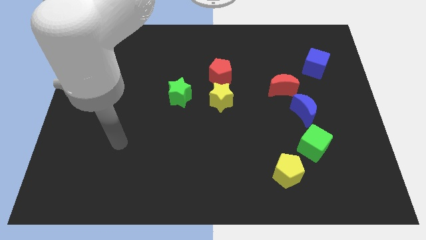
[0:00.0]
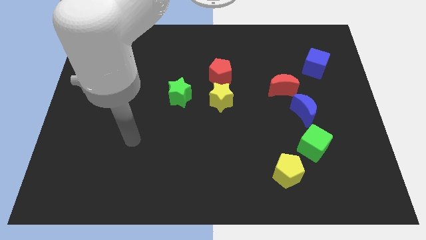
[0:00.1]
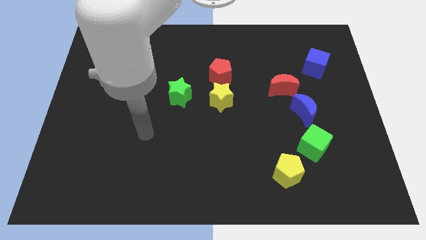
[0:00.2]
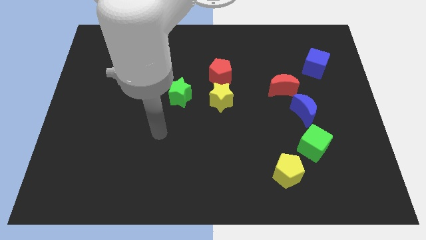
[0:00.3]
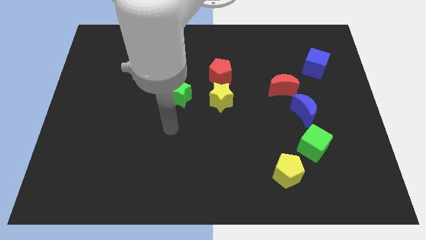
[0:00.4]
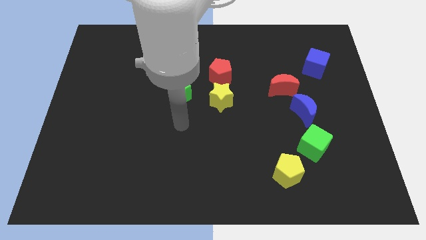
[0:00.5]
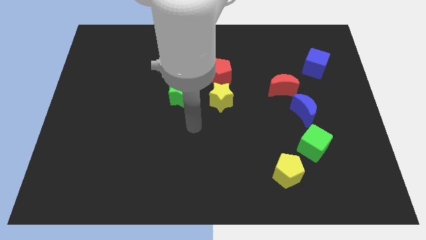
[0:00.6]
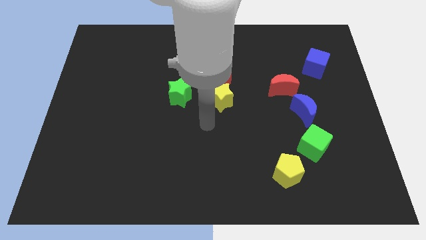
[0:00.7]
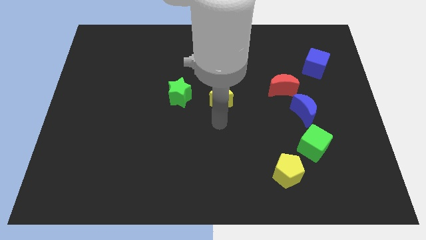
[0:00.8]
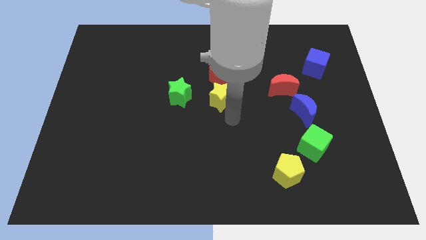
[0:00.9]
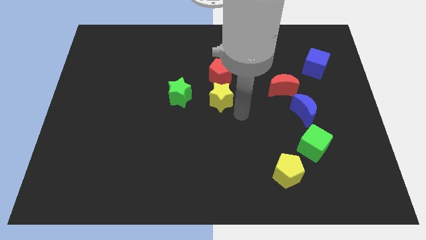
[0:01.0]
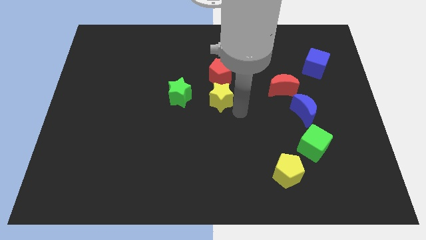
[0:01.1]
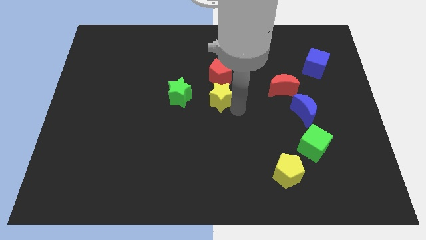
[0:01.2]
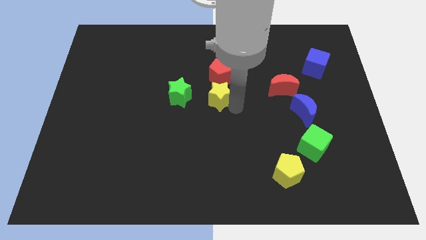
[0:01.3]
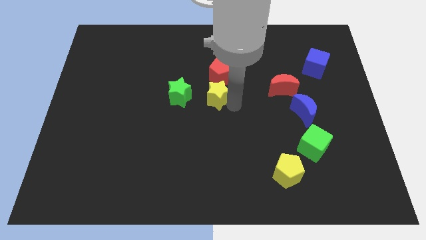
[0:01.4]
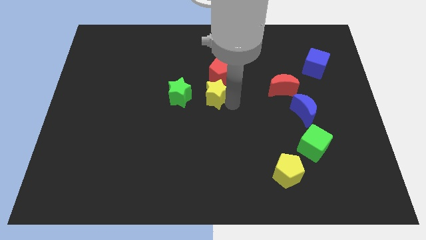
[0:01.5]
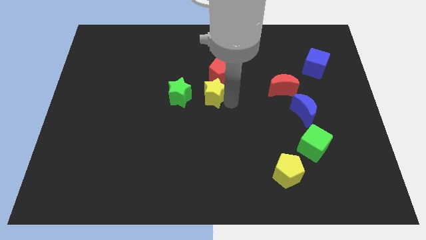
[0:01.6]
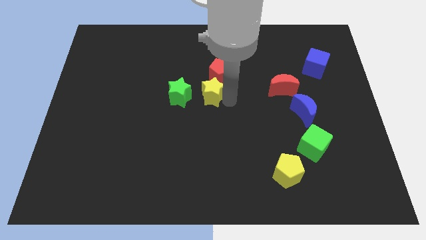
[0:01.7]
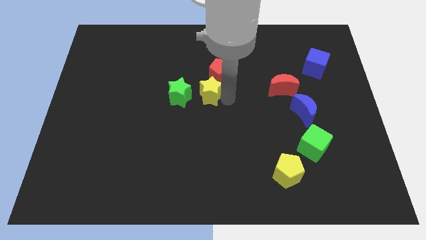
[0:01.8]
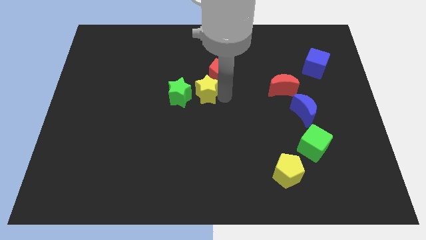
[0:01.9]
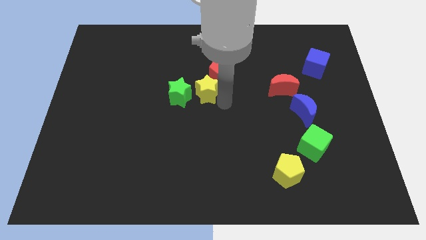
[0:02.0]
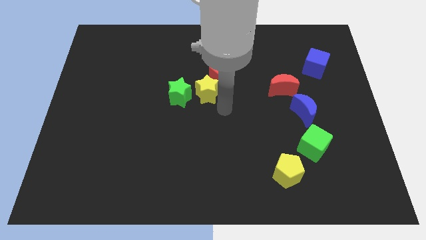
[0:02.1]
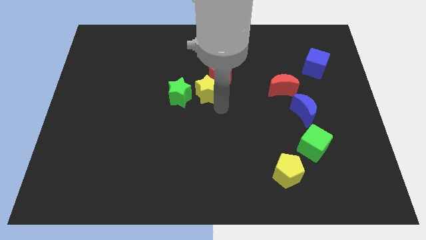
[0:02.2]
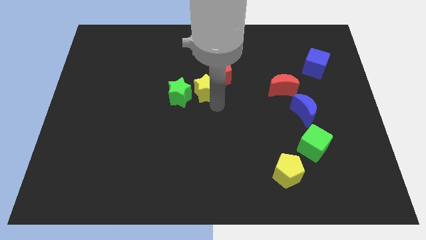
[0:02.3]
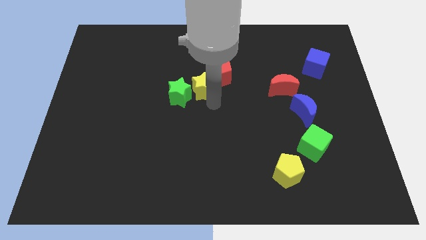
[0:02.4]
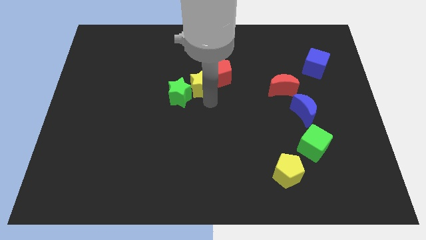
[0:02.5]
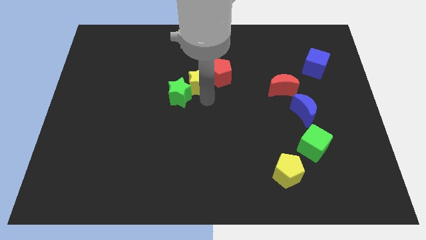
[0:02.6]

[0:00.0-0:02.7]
slightly slide the yellow star upwards and then left

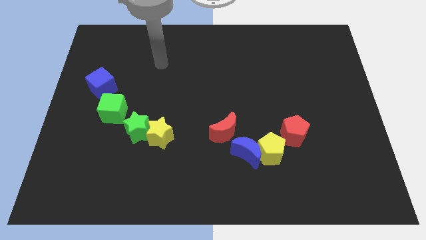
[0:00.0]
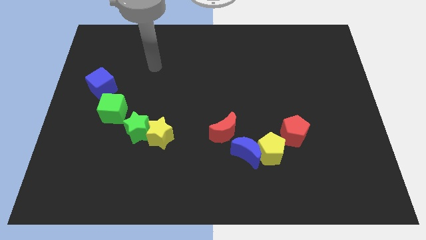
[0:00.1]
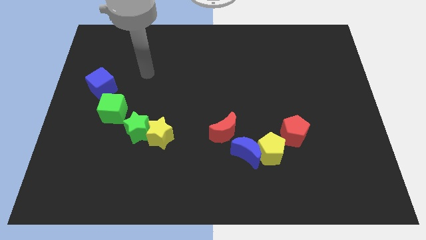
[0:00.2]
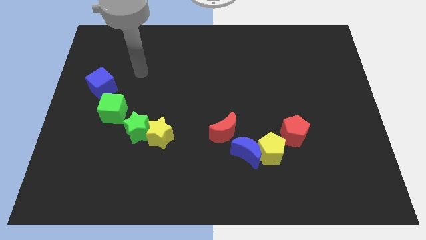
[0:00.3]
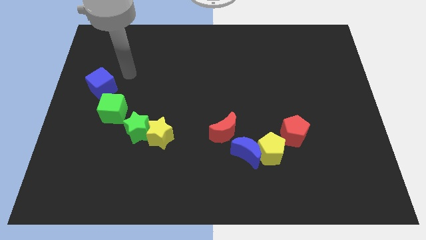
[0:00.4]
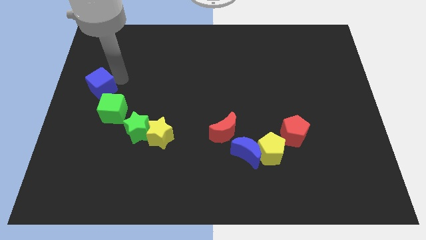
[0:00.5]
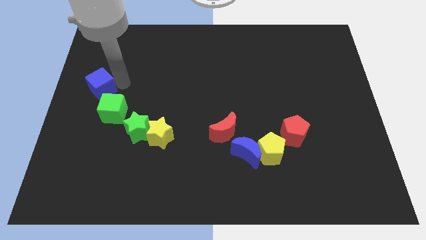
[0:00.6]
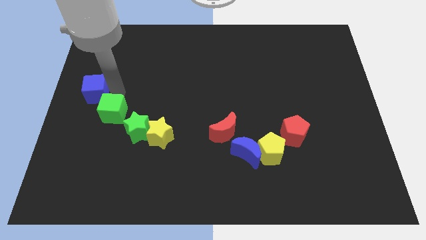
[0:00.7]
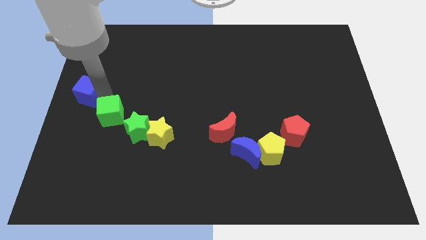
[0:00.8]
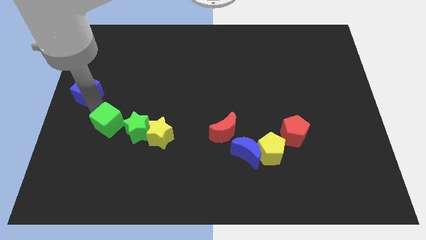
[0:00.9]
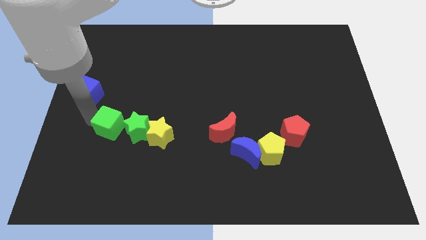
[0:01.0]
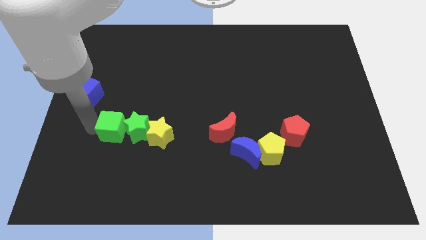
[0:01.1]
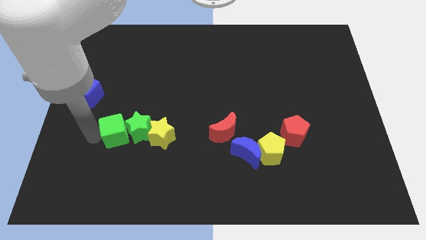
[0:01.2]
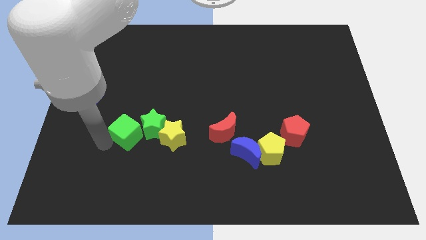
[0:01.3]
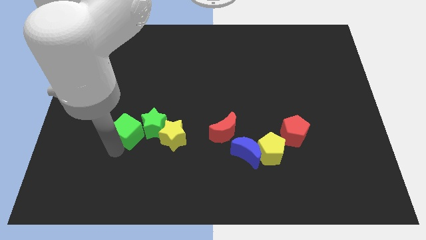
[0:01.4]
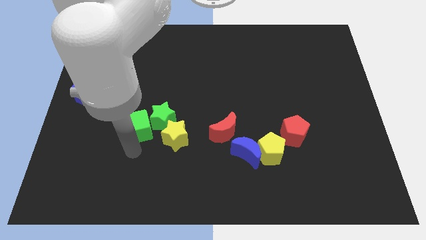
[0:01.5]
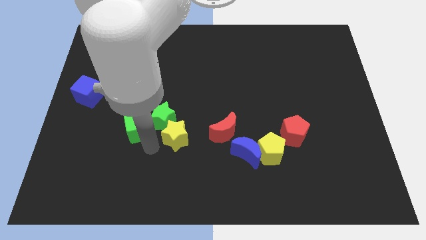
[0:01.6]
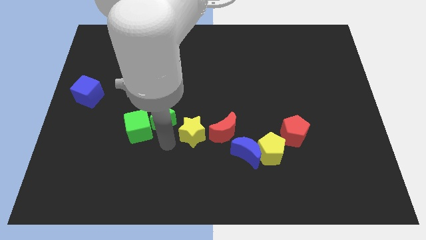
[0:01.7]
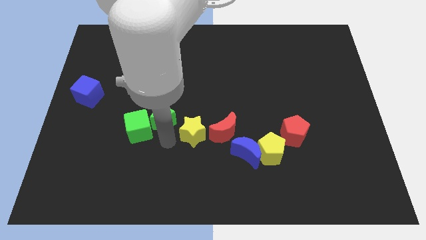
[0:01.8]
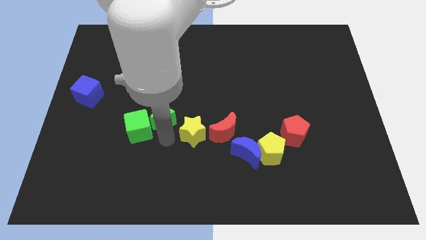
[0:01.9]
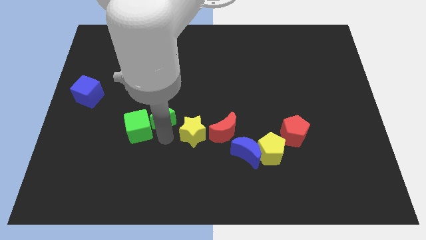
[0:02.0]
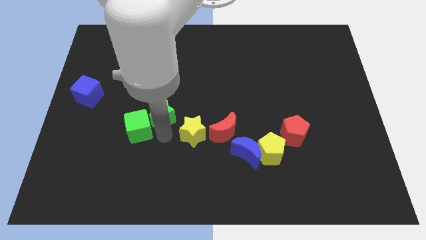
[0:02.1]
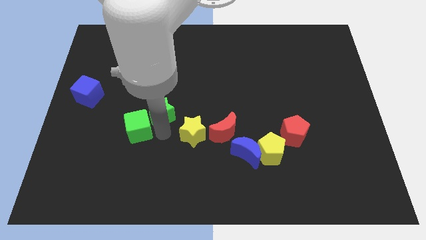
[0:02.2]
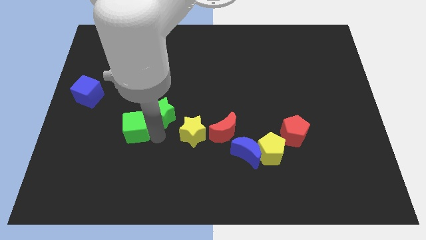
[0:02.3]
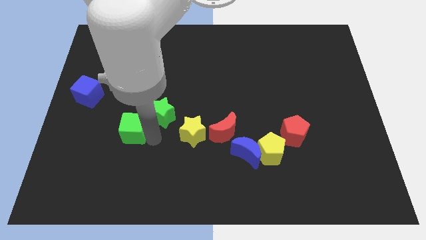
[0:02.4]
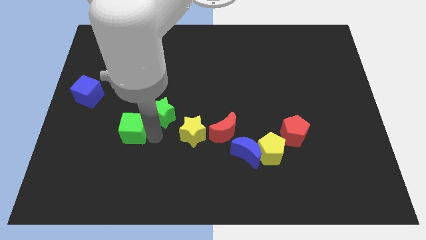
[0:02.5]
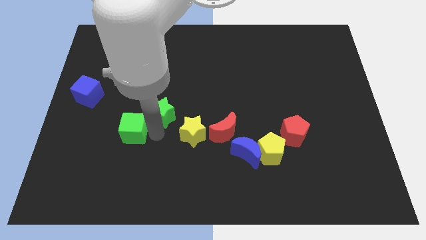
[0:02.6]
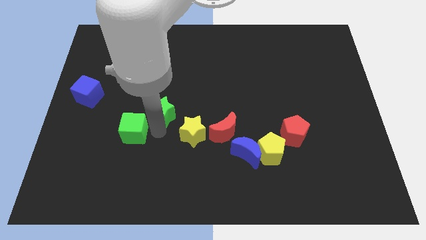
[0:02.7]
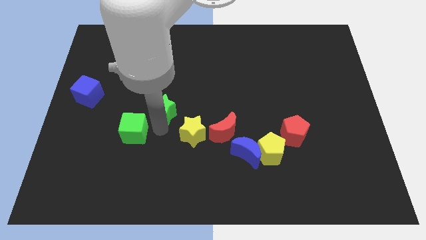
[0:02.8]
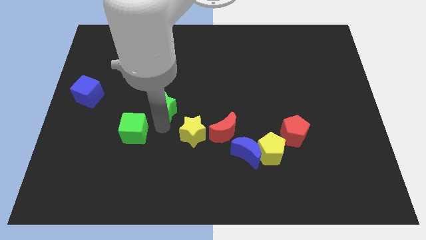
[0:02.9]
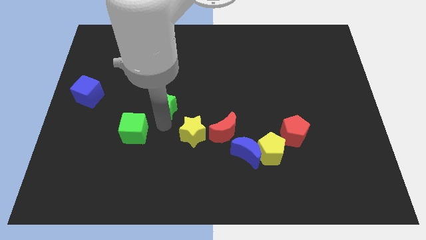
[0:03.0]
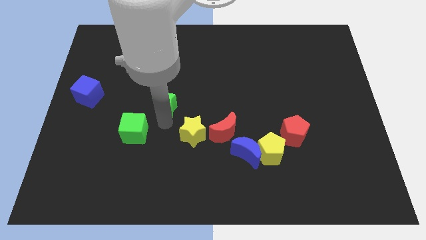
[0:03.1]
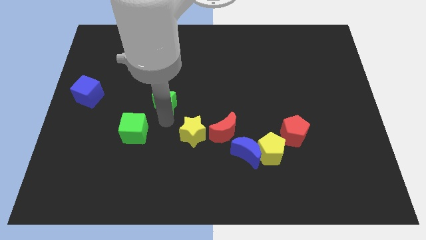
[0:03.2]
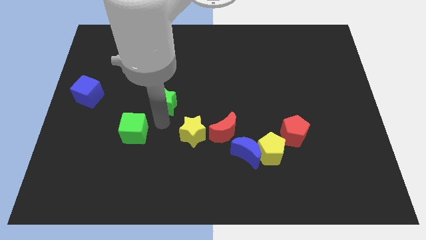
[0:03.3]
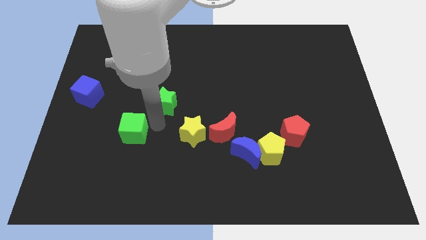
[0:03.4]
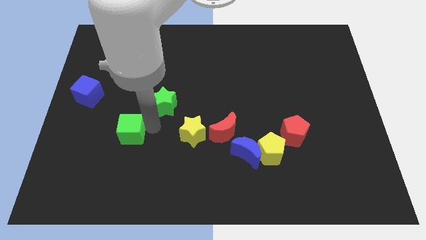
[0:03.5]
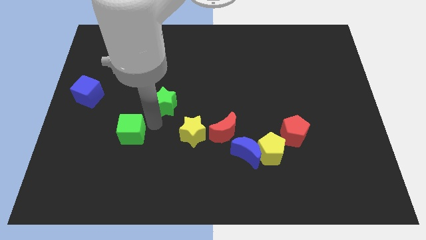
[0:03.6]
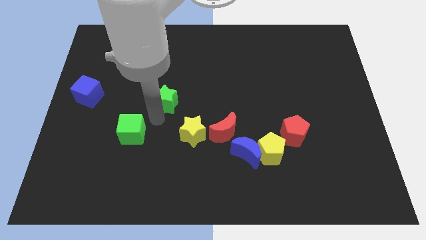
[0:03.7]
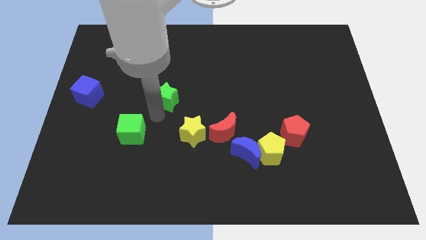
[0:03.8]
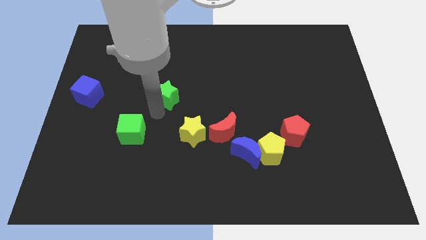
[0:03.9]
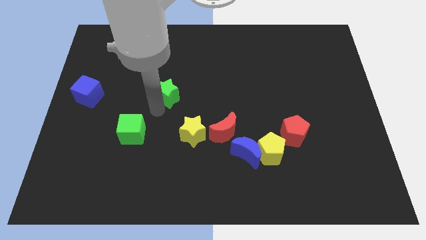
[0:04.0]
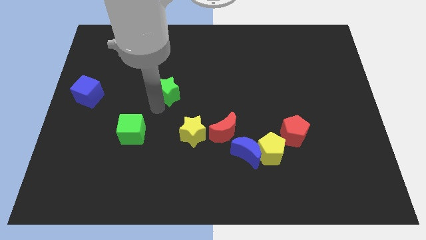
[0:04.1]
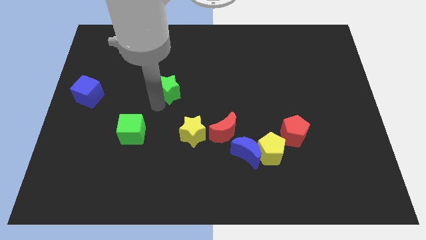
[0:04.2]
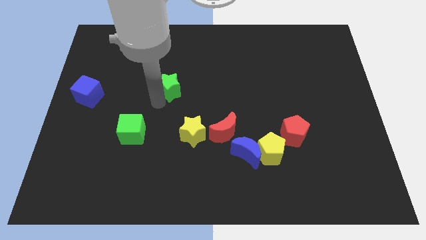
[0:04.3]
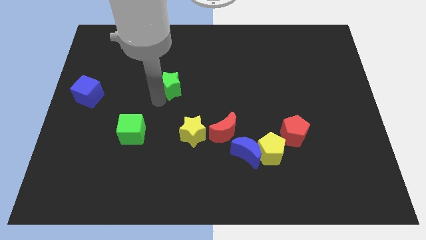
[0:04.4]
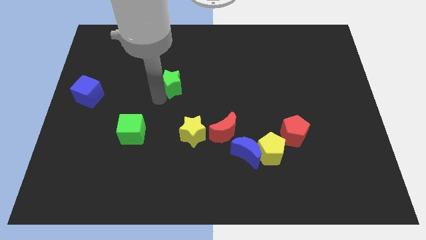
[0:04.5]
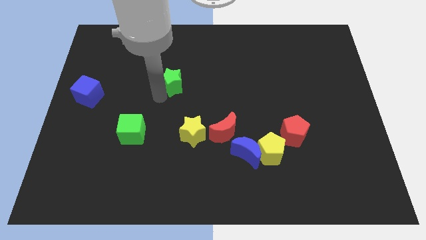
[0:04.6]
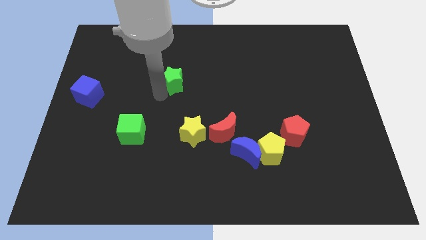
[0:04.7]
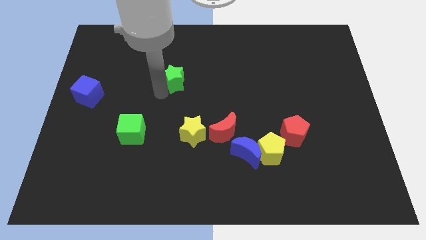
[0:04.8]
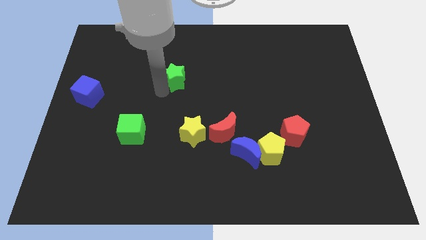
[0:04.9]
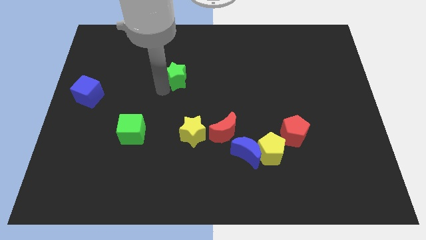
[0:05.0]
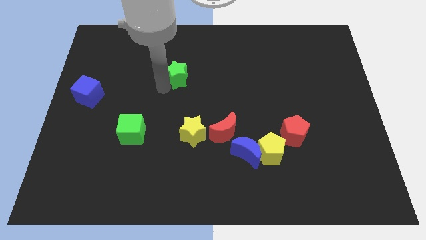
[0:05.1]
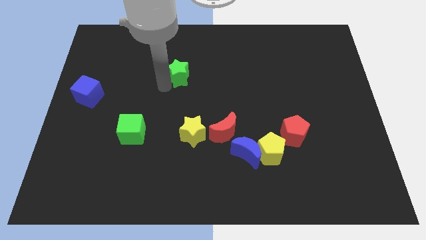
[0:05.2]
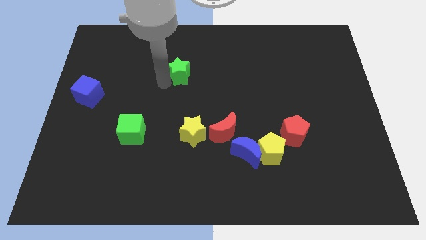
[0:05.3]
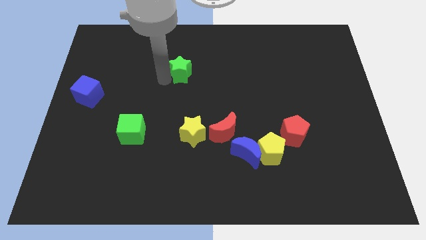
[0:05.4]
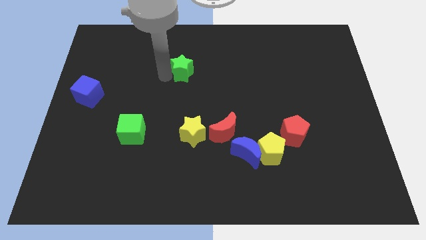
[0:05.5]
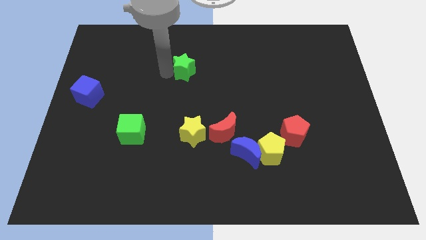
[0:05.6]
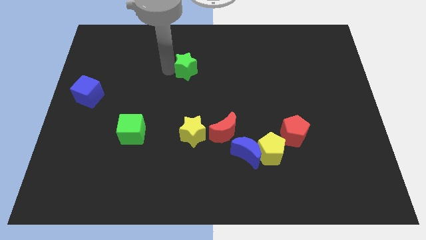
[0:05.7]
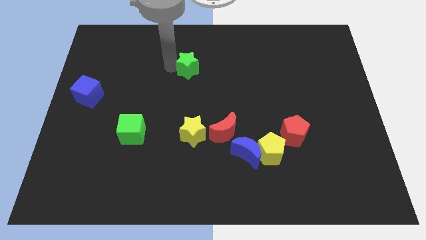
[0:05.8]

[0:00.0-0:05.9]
move the green star diagonally upwards and right
